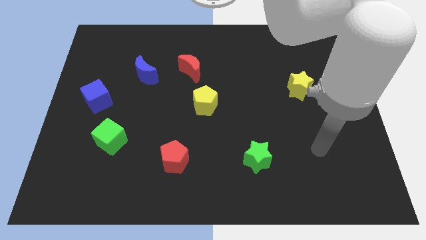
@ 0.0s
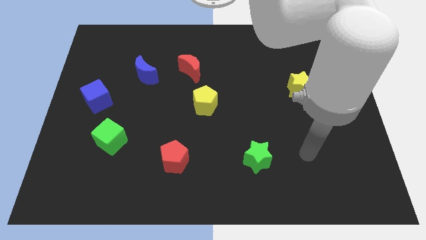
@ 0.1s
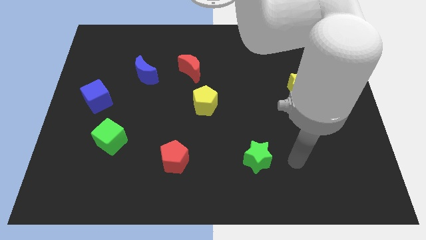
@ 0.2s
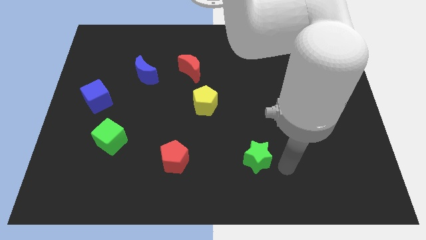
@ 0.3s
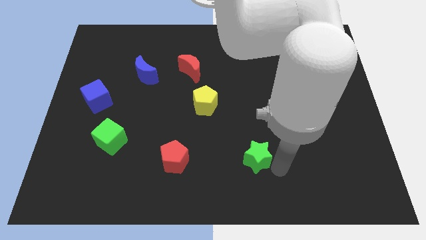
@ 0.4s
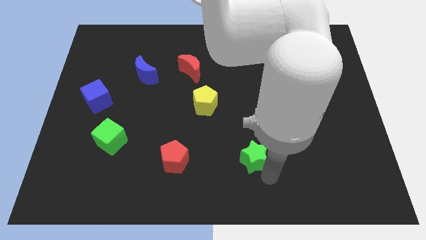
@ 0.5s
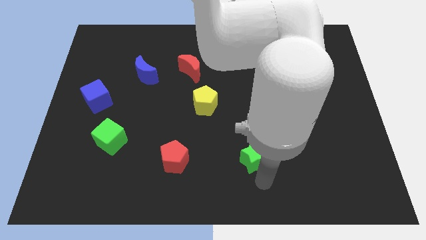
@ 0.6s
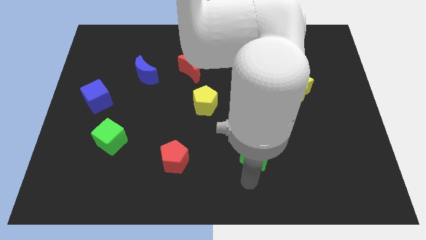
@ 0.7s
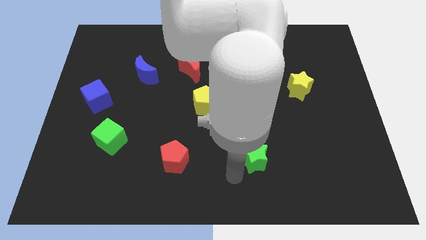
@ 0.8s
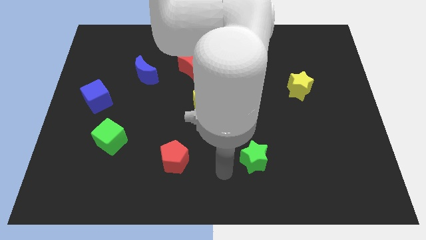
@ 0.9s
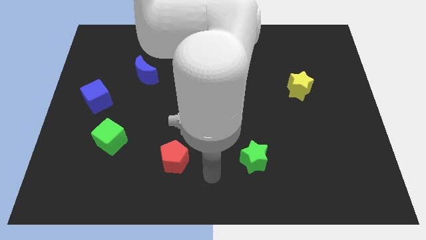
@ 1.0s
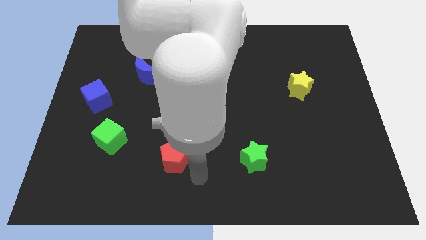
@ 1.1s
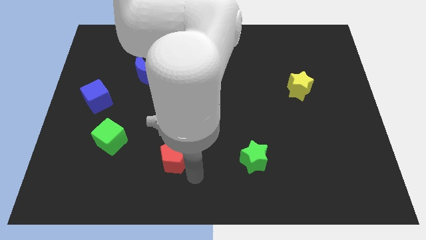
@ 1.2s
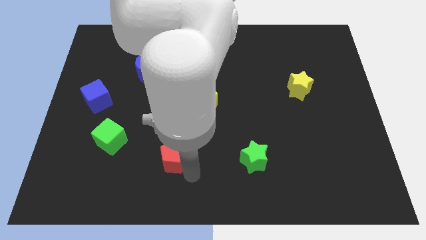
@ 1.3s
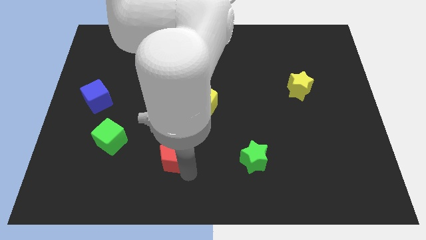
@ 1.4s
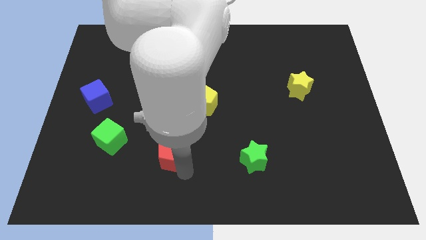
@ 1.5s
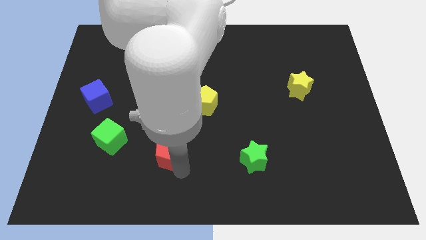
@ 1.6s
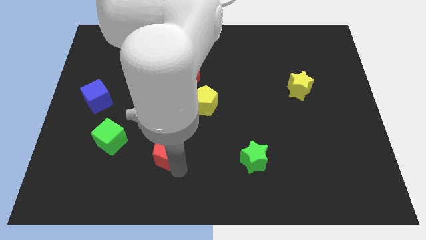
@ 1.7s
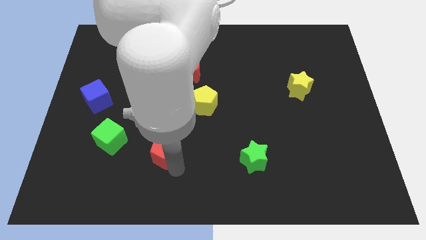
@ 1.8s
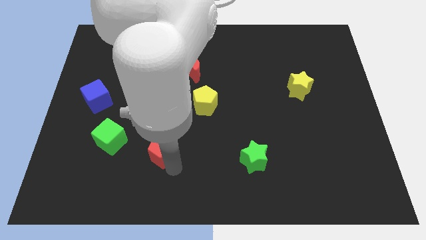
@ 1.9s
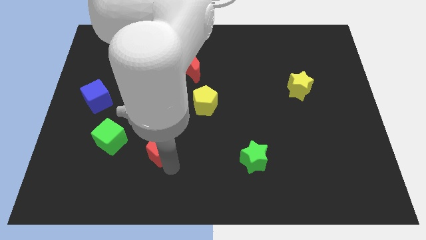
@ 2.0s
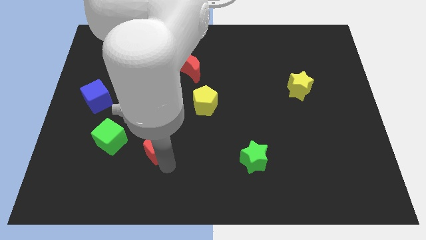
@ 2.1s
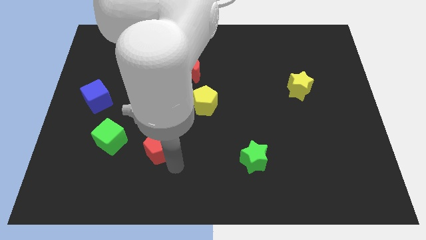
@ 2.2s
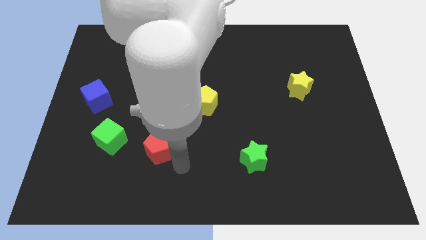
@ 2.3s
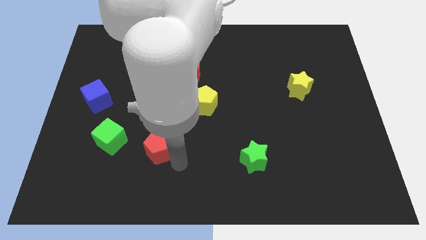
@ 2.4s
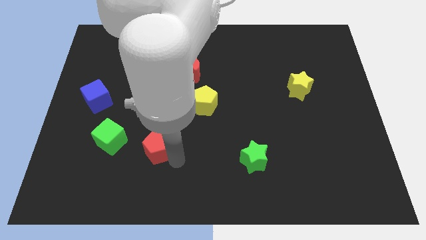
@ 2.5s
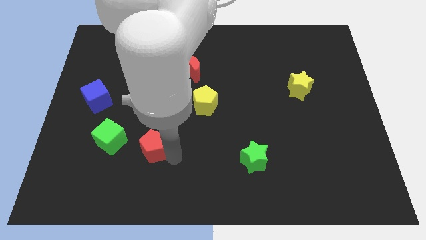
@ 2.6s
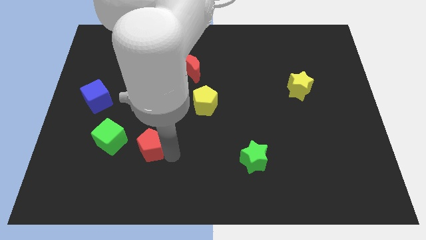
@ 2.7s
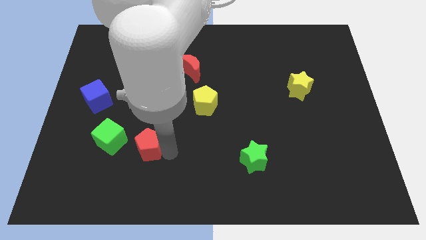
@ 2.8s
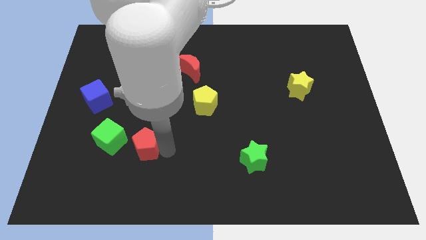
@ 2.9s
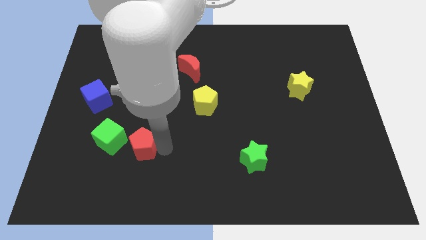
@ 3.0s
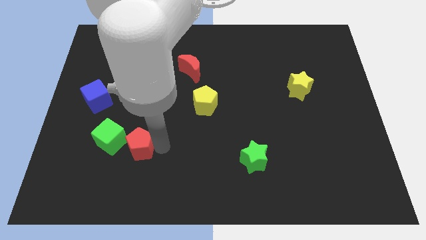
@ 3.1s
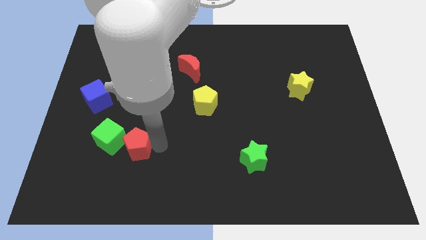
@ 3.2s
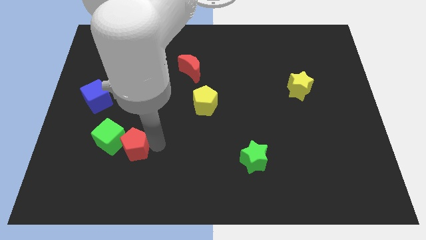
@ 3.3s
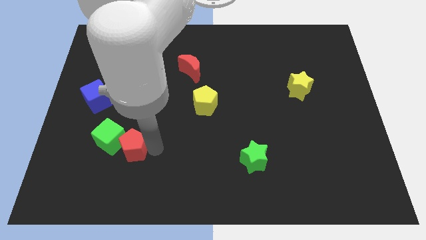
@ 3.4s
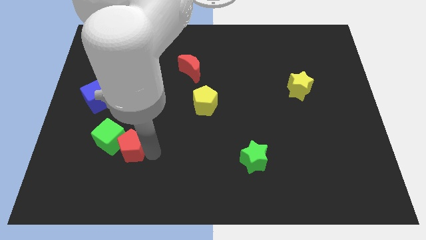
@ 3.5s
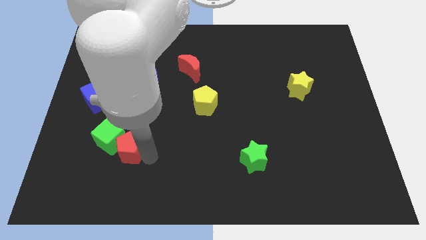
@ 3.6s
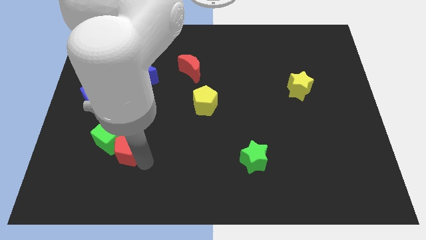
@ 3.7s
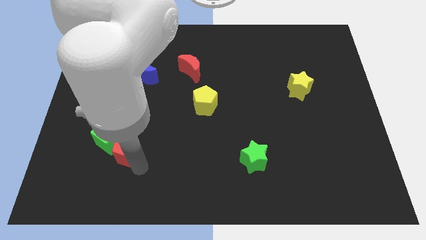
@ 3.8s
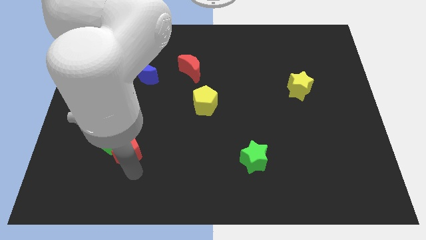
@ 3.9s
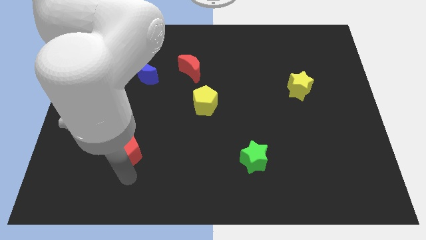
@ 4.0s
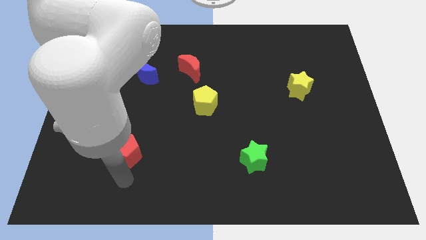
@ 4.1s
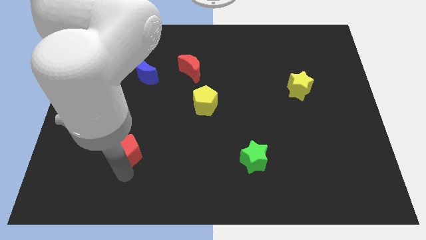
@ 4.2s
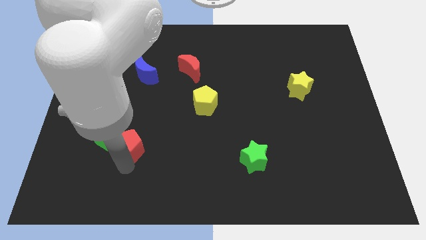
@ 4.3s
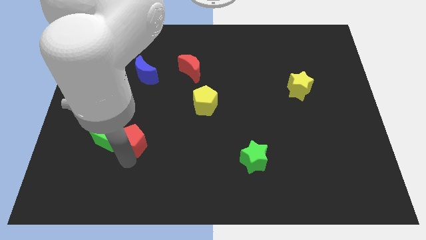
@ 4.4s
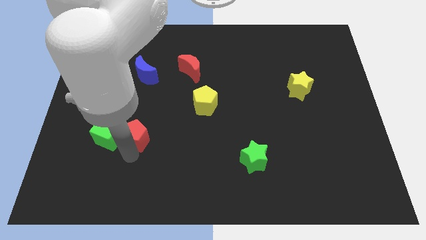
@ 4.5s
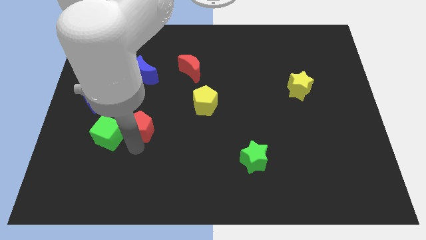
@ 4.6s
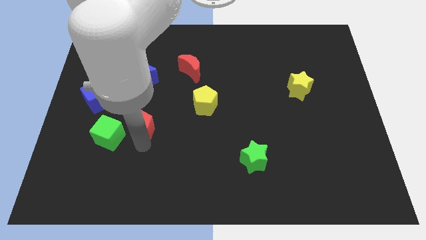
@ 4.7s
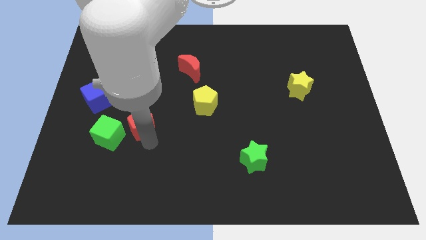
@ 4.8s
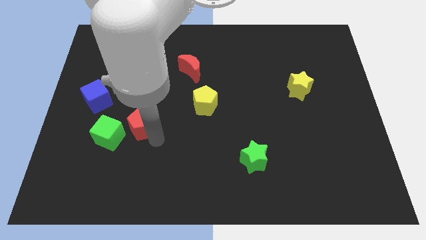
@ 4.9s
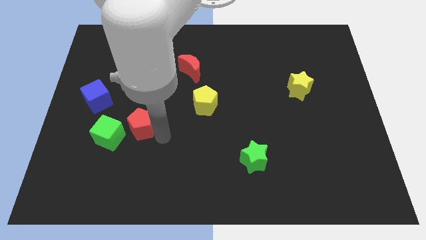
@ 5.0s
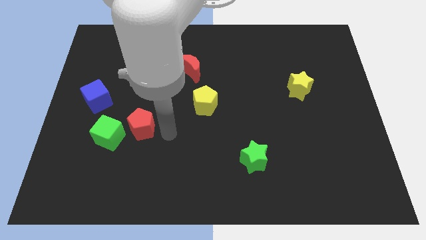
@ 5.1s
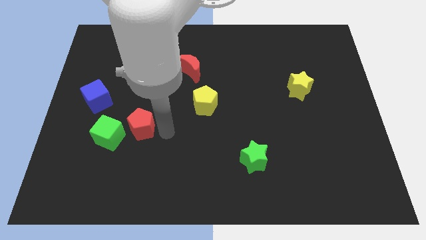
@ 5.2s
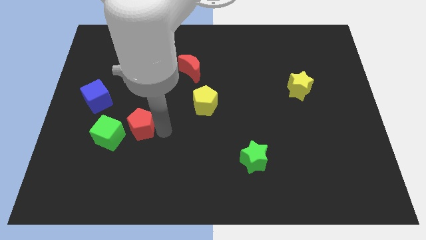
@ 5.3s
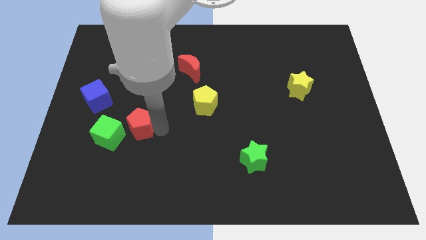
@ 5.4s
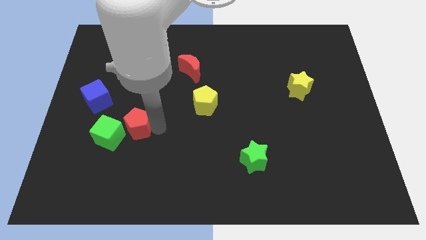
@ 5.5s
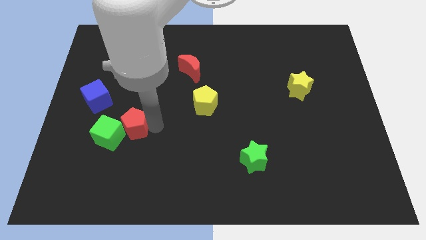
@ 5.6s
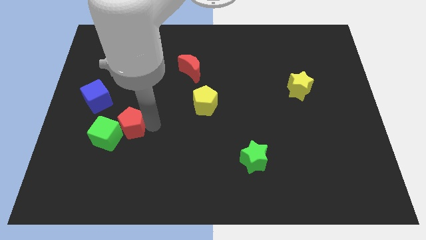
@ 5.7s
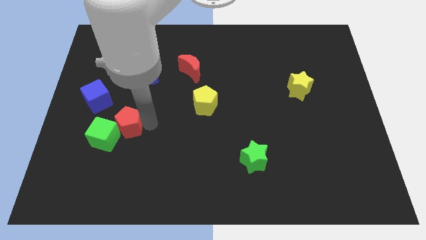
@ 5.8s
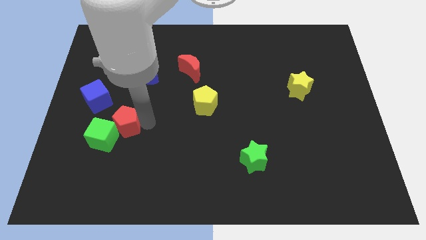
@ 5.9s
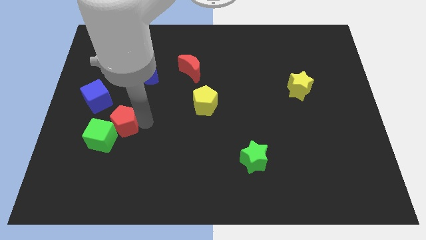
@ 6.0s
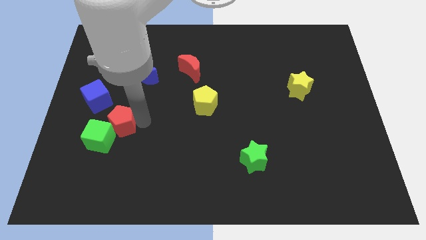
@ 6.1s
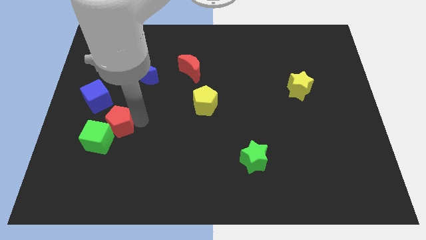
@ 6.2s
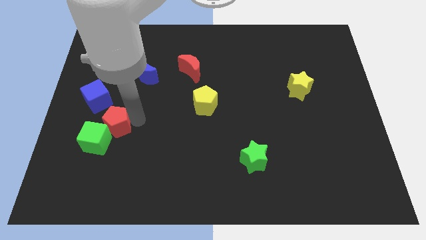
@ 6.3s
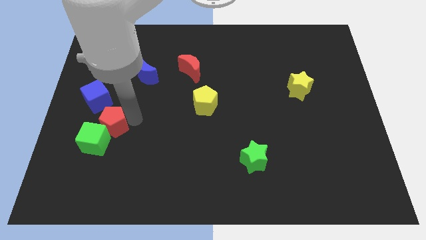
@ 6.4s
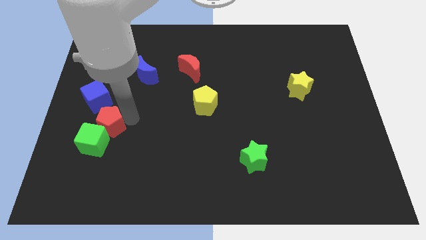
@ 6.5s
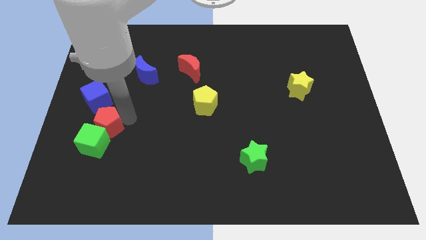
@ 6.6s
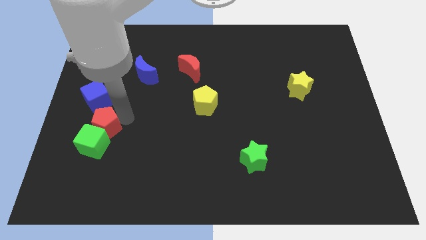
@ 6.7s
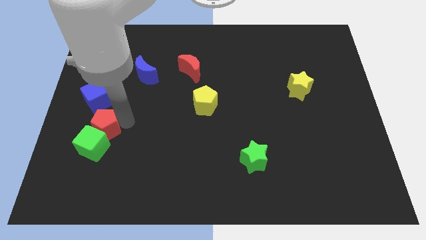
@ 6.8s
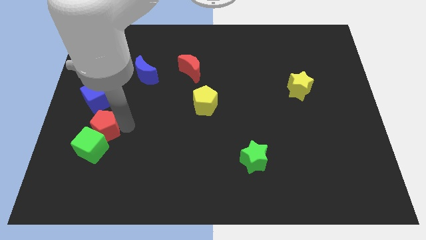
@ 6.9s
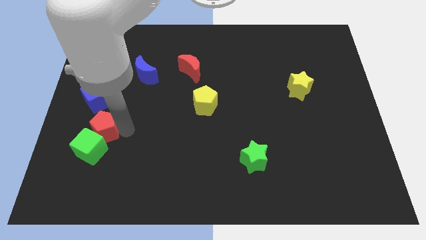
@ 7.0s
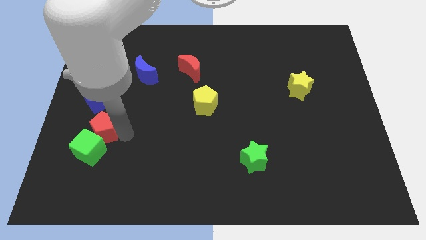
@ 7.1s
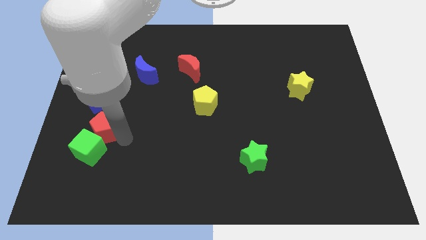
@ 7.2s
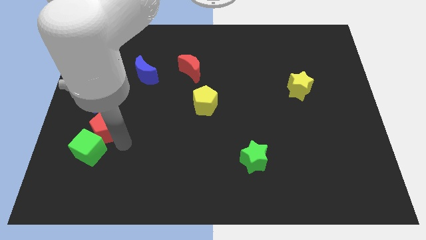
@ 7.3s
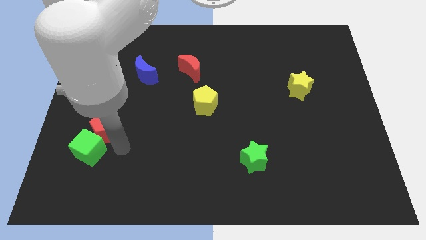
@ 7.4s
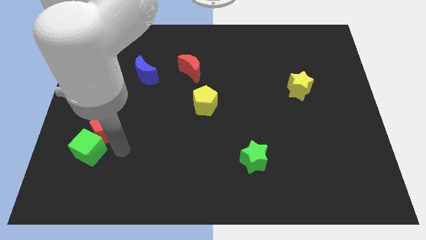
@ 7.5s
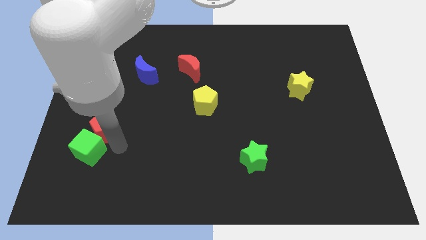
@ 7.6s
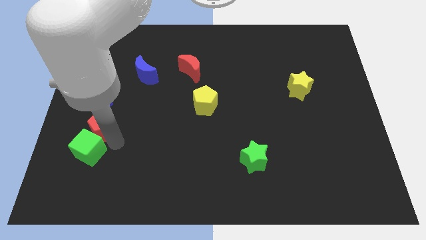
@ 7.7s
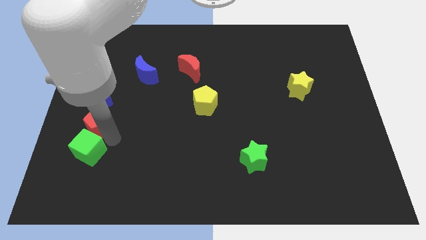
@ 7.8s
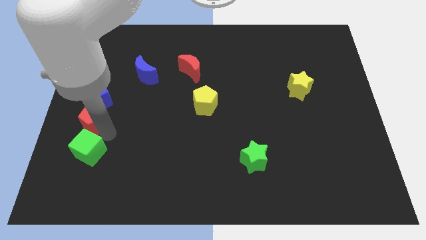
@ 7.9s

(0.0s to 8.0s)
move the red pentagon to the left side
